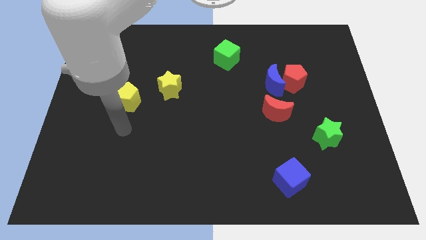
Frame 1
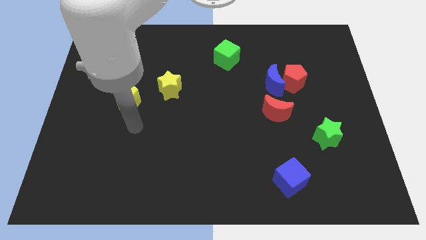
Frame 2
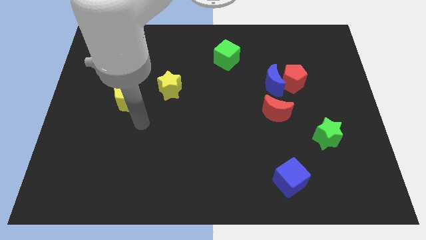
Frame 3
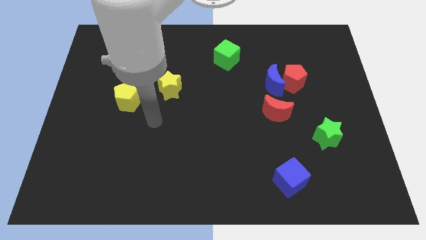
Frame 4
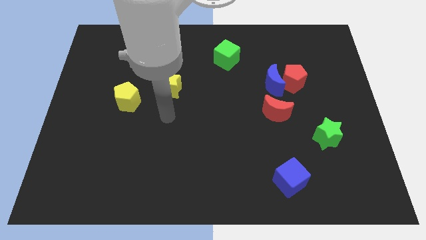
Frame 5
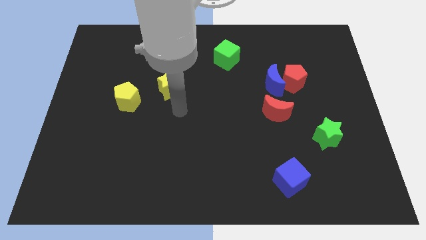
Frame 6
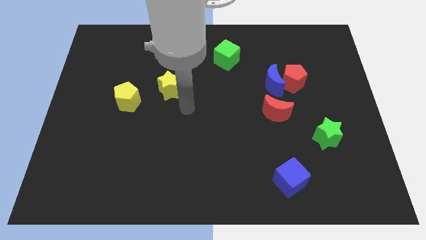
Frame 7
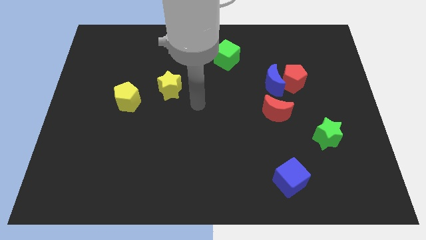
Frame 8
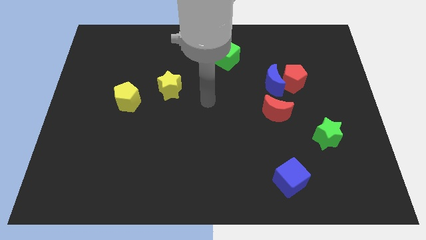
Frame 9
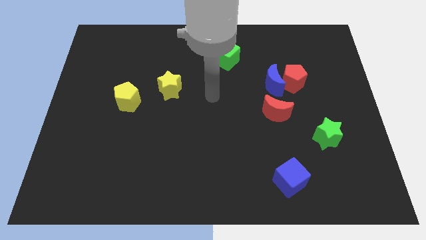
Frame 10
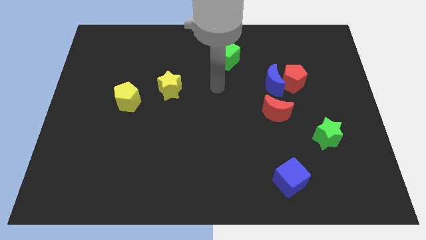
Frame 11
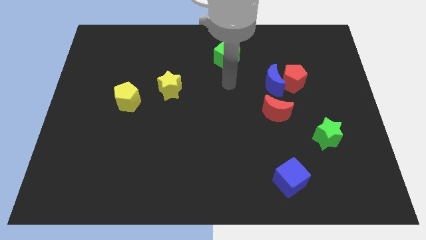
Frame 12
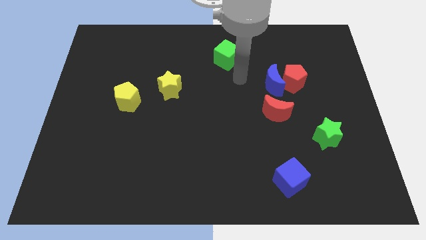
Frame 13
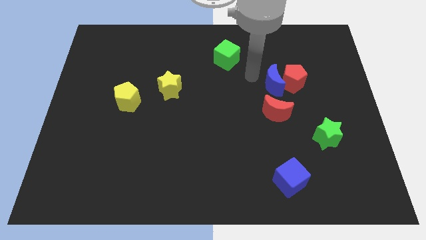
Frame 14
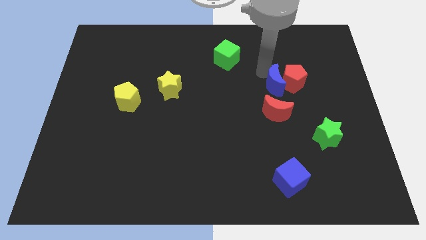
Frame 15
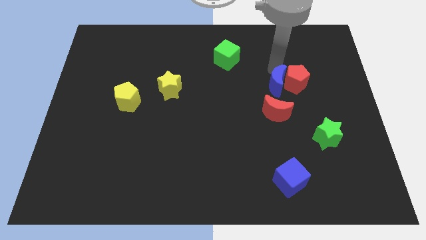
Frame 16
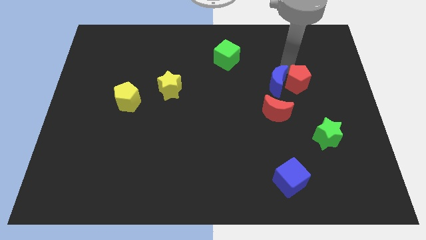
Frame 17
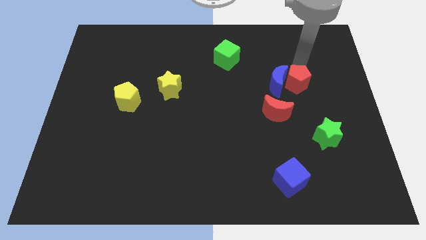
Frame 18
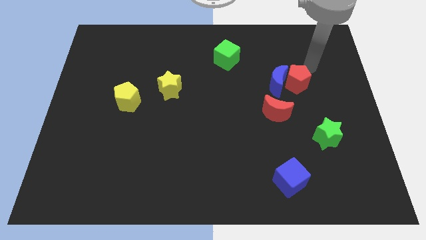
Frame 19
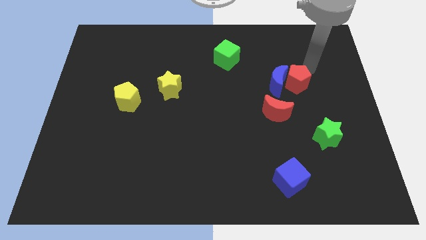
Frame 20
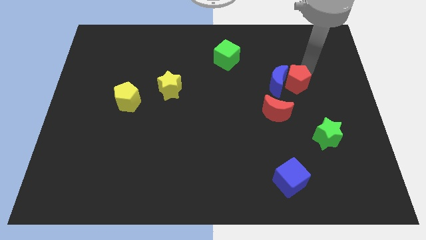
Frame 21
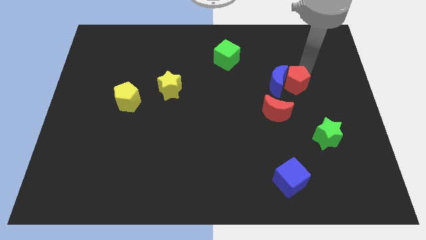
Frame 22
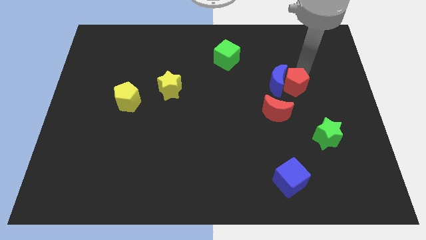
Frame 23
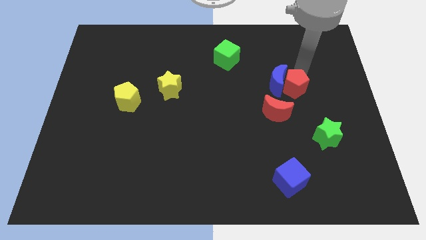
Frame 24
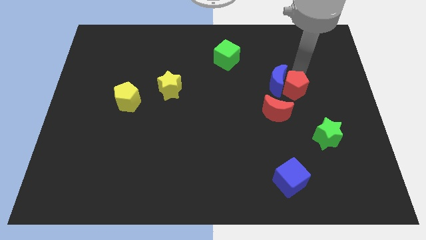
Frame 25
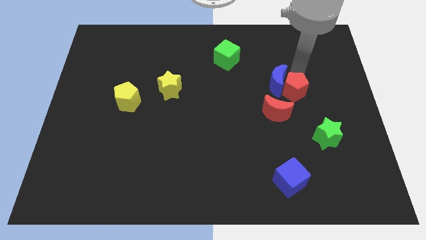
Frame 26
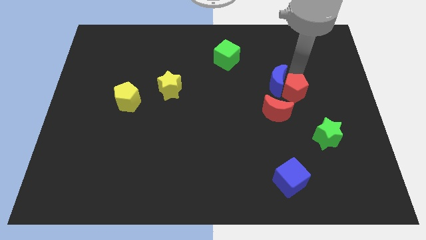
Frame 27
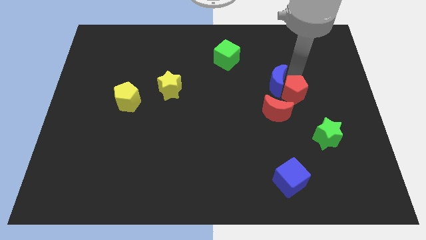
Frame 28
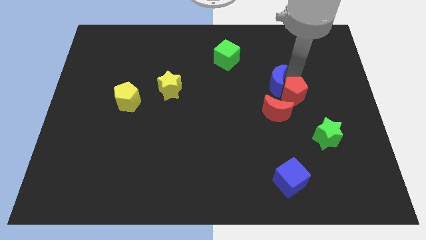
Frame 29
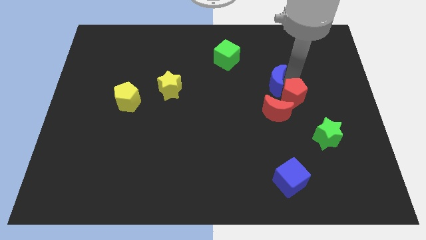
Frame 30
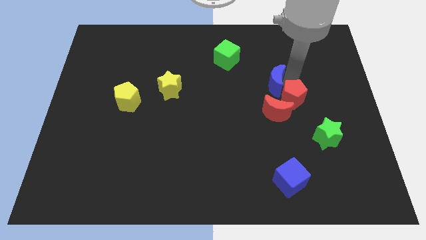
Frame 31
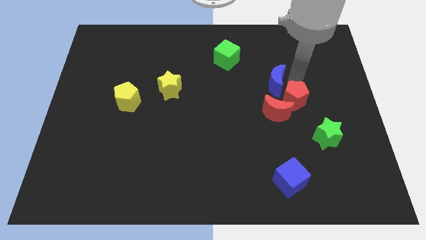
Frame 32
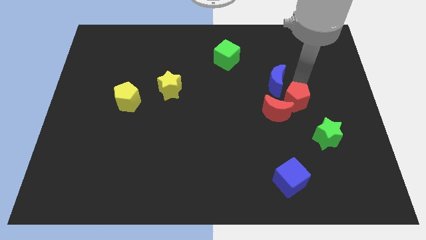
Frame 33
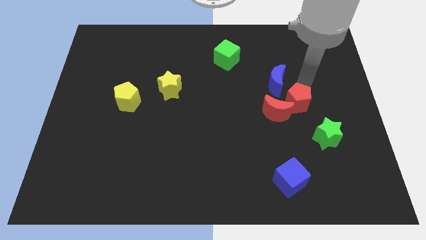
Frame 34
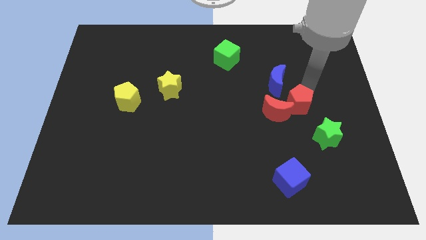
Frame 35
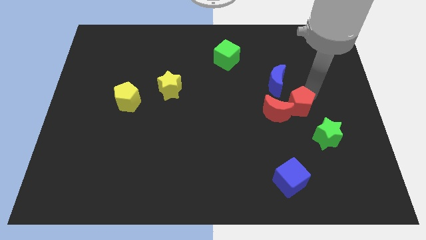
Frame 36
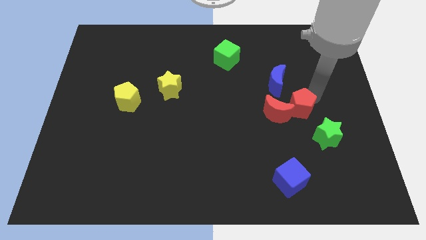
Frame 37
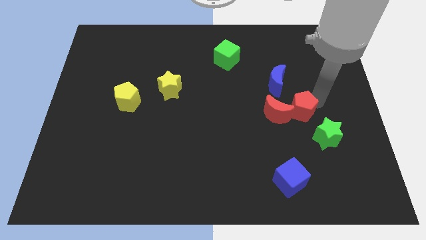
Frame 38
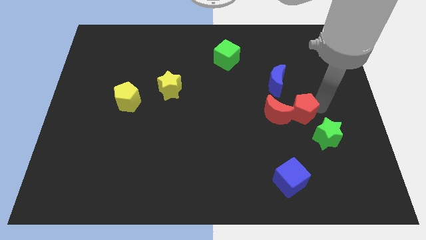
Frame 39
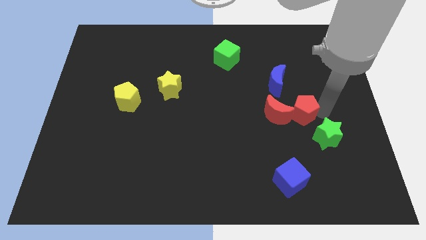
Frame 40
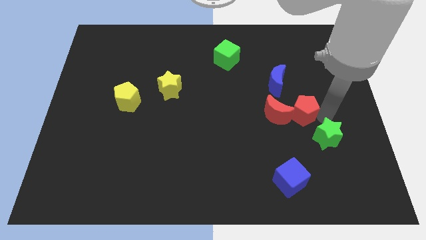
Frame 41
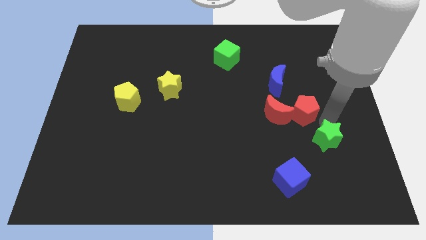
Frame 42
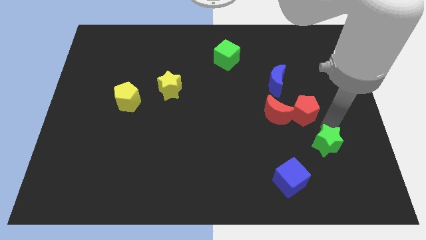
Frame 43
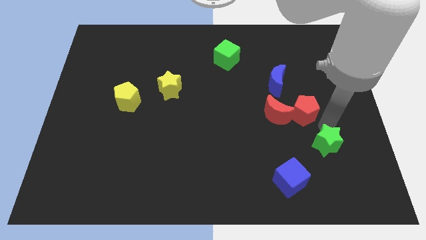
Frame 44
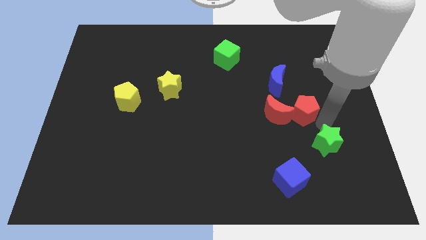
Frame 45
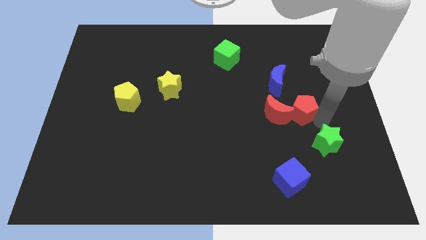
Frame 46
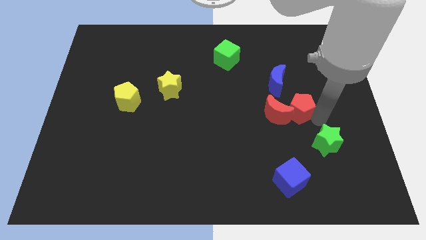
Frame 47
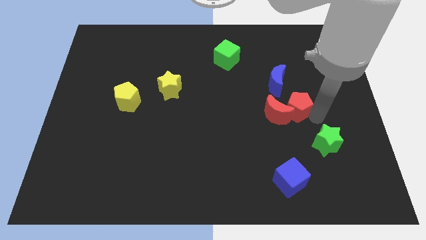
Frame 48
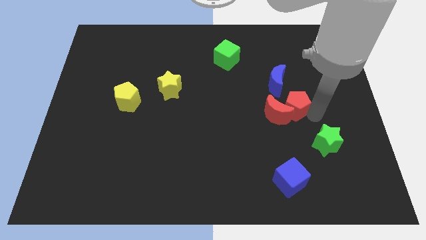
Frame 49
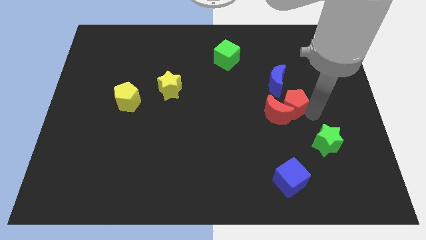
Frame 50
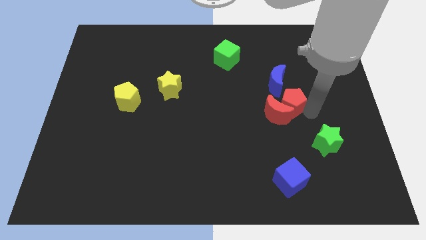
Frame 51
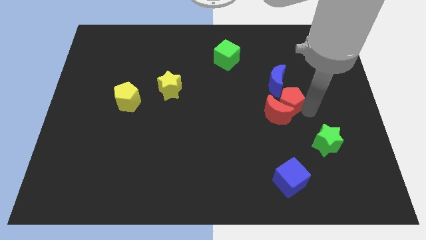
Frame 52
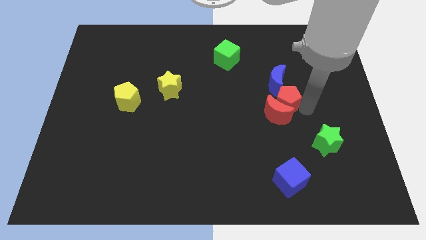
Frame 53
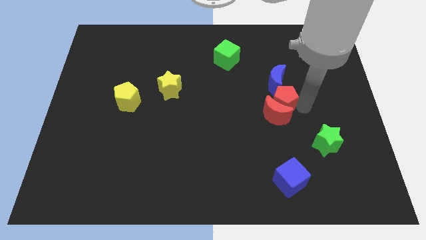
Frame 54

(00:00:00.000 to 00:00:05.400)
slide the red pentagon somewhat down and left diagonally

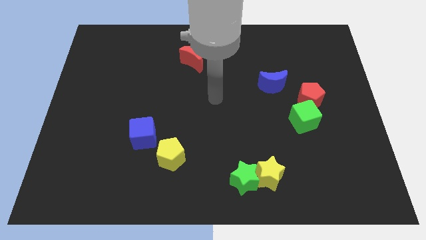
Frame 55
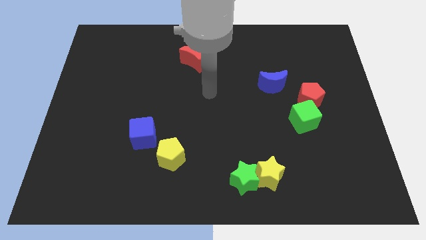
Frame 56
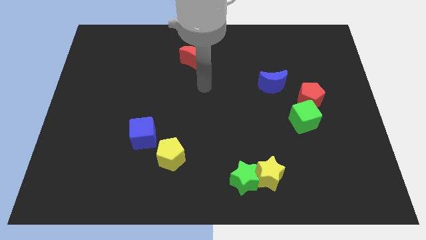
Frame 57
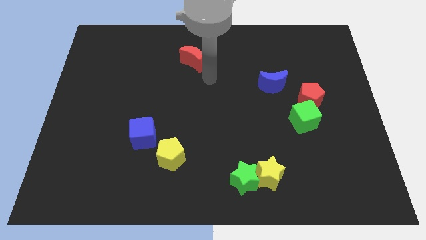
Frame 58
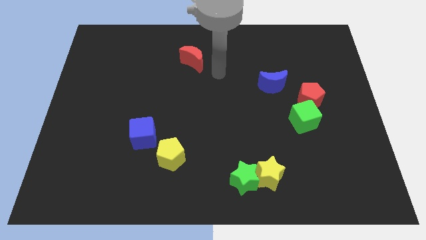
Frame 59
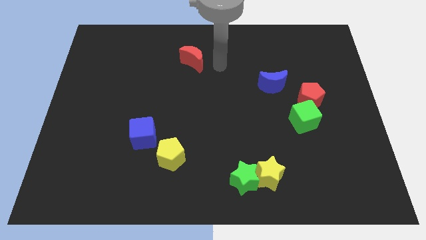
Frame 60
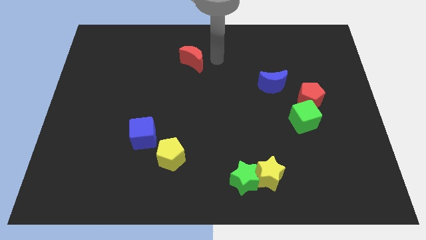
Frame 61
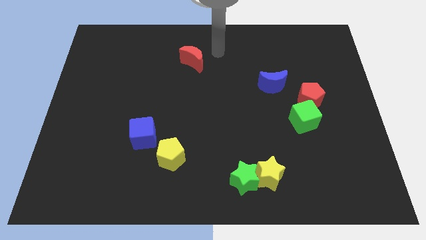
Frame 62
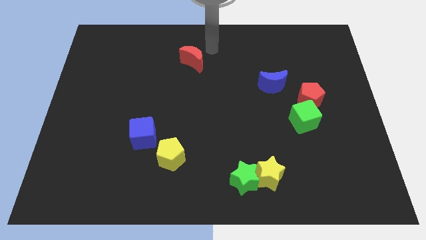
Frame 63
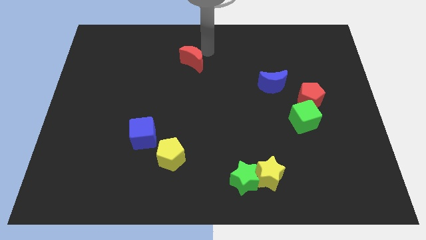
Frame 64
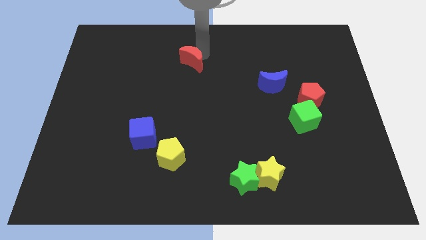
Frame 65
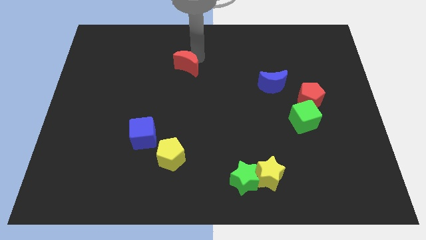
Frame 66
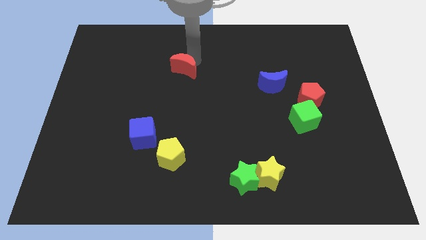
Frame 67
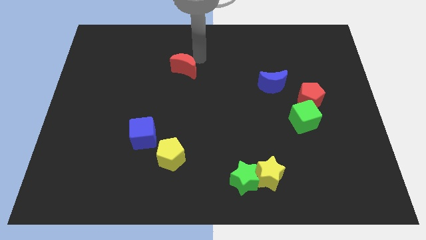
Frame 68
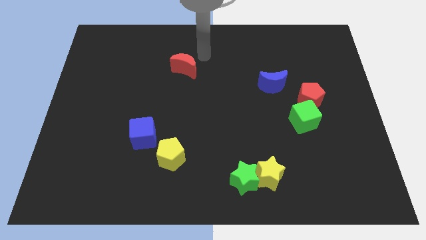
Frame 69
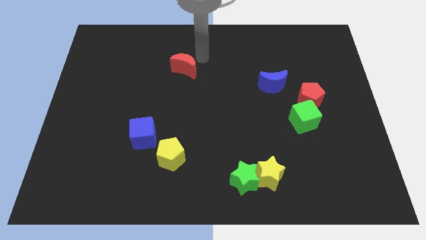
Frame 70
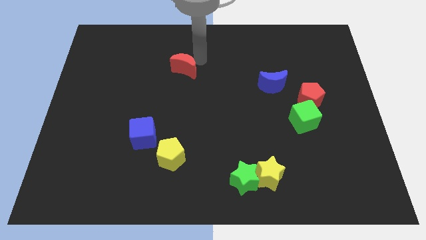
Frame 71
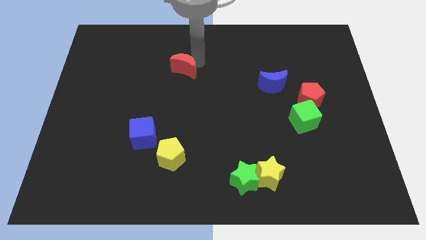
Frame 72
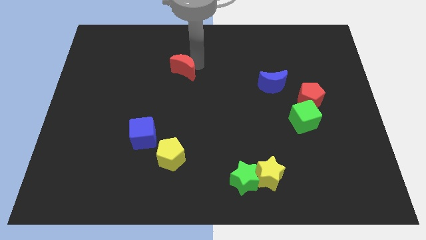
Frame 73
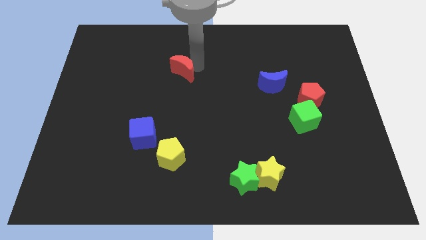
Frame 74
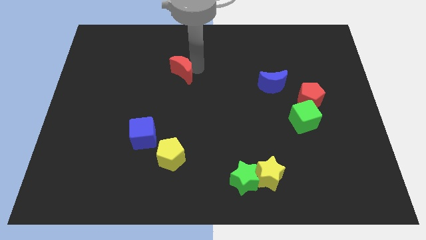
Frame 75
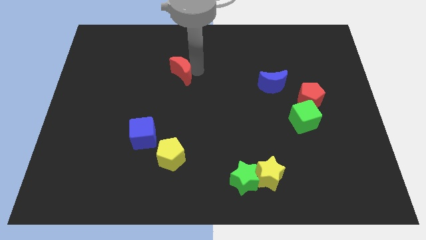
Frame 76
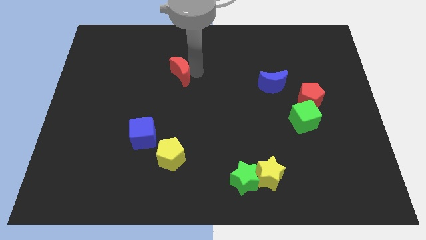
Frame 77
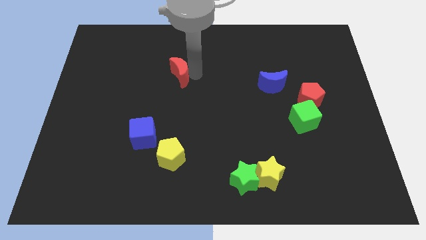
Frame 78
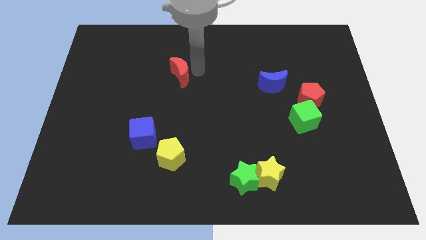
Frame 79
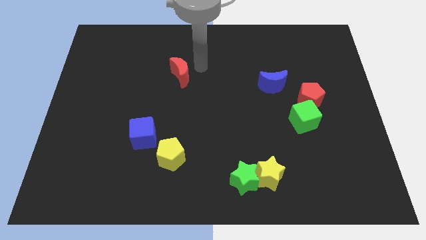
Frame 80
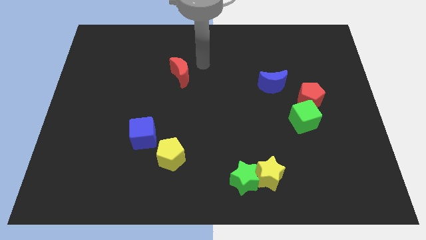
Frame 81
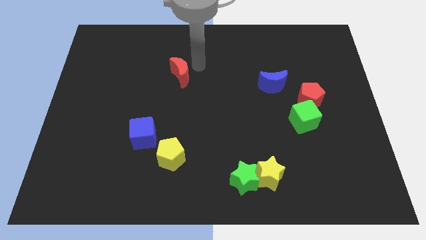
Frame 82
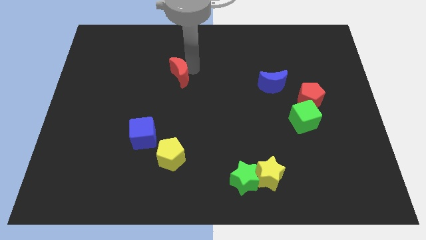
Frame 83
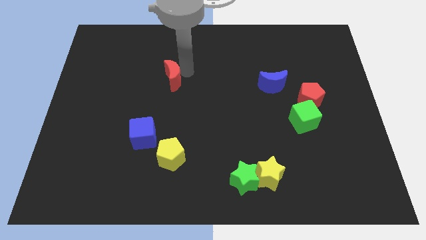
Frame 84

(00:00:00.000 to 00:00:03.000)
push the red moon a bit downwards and to the left
